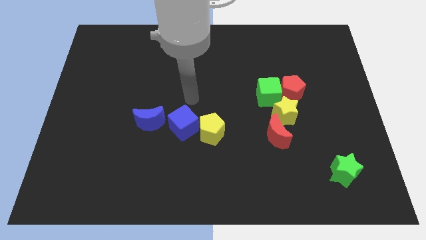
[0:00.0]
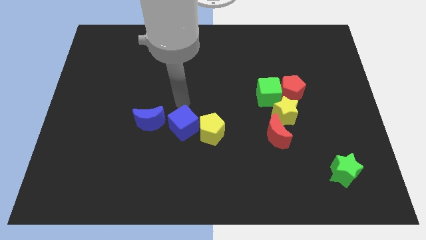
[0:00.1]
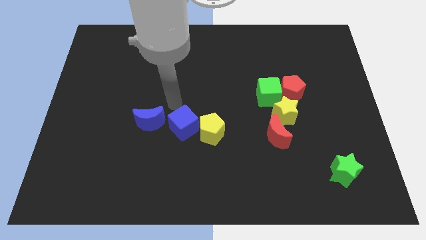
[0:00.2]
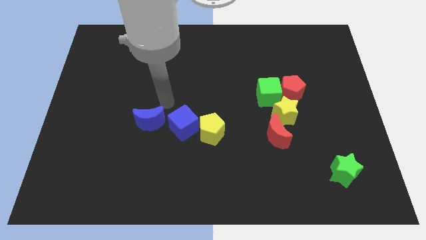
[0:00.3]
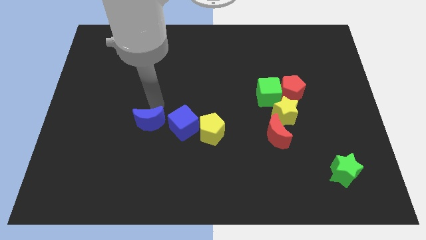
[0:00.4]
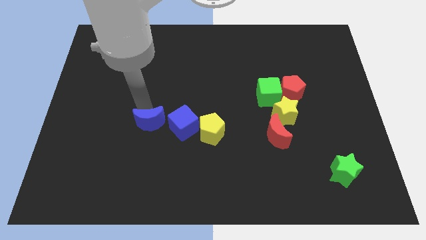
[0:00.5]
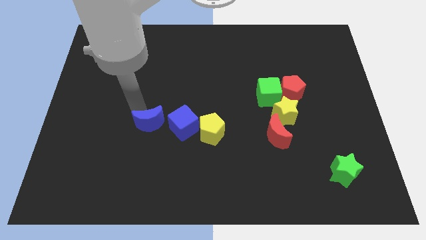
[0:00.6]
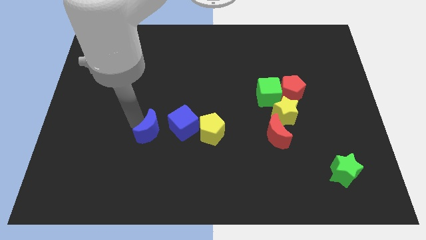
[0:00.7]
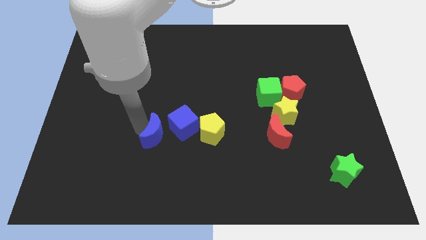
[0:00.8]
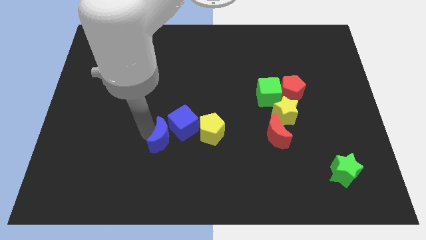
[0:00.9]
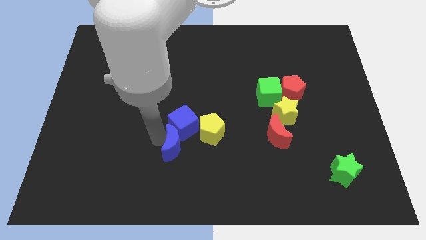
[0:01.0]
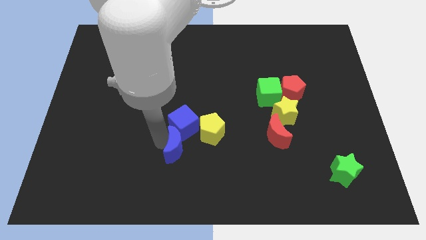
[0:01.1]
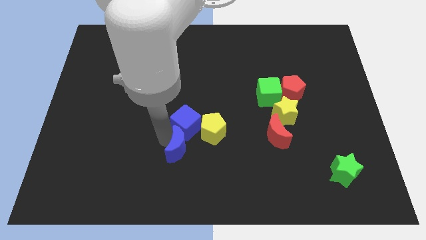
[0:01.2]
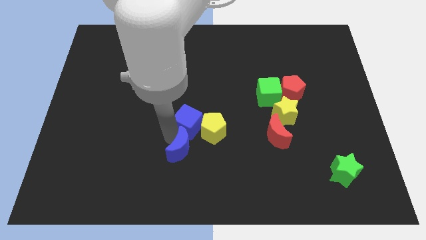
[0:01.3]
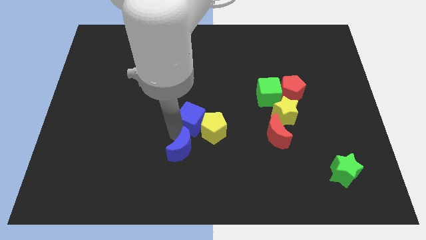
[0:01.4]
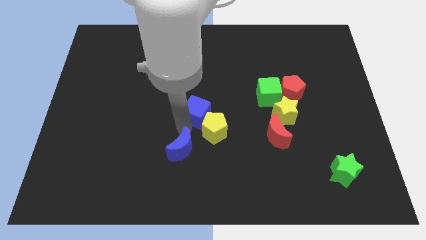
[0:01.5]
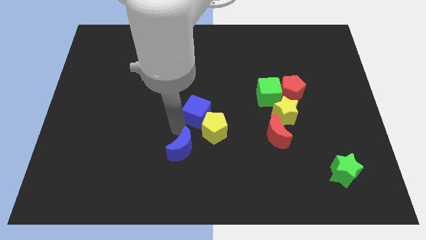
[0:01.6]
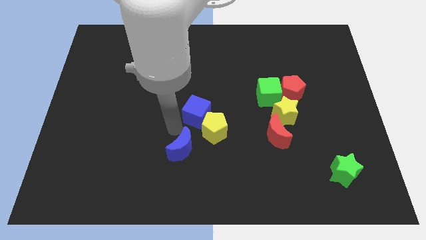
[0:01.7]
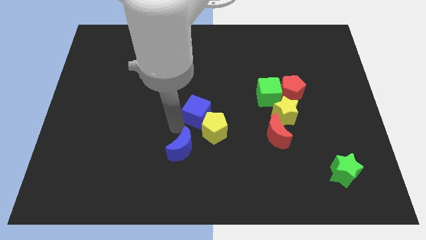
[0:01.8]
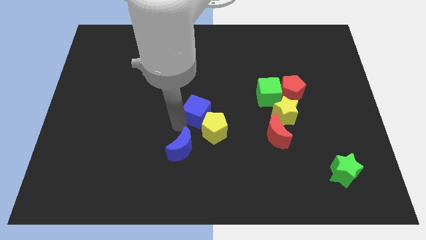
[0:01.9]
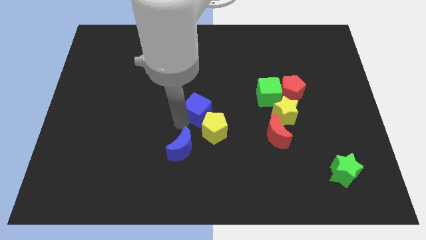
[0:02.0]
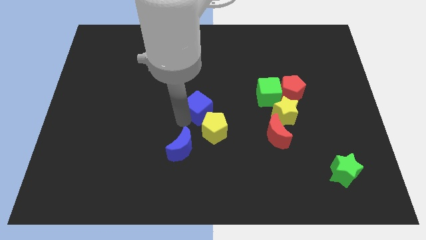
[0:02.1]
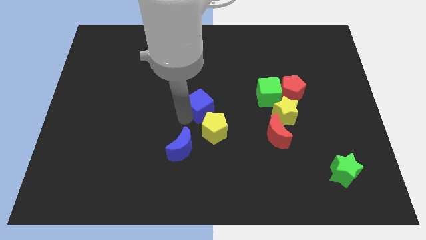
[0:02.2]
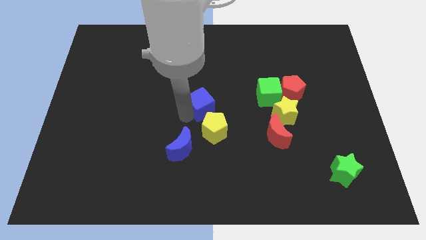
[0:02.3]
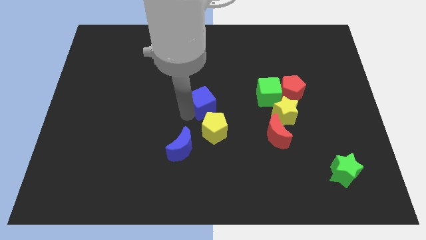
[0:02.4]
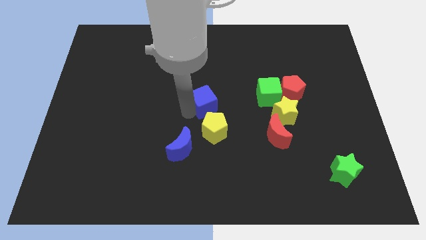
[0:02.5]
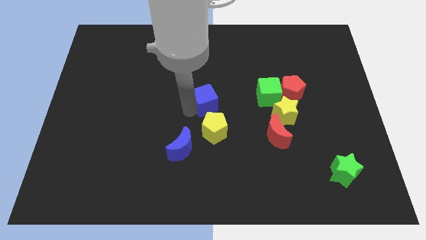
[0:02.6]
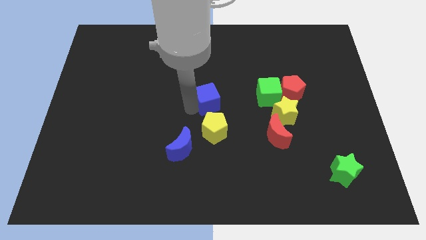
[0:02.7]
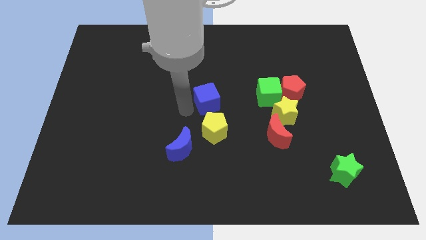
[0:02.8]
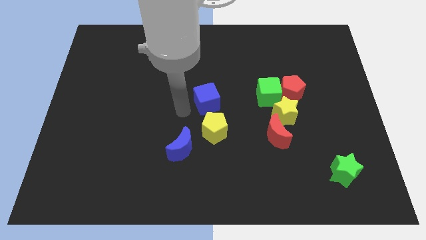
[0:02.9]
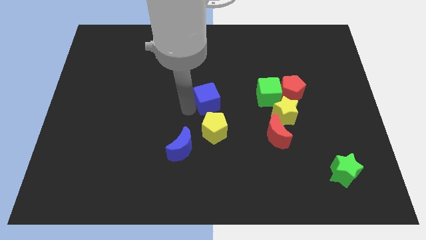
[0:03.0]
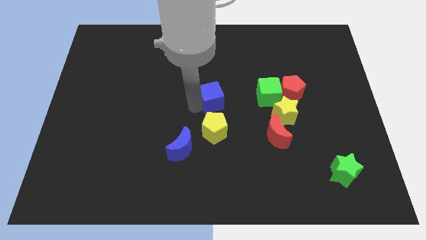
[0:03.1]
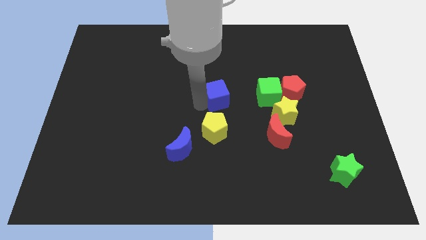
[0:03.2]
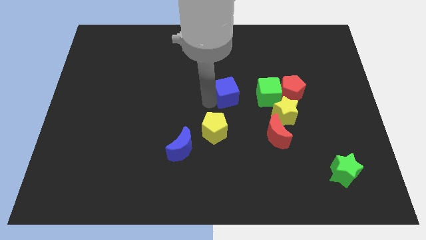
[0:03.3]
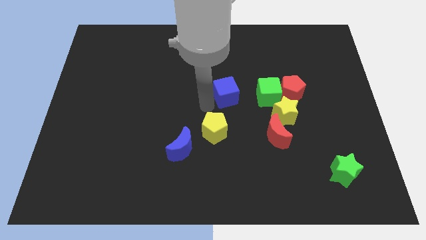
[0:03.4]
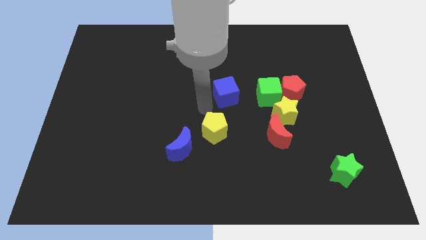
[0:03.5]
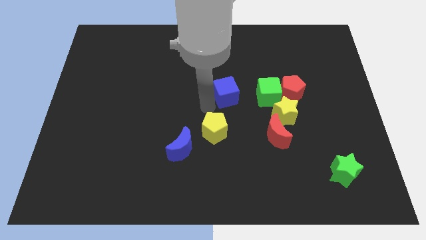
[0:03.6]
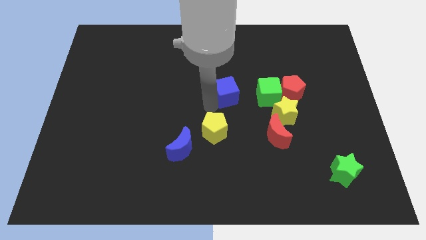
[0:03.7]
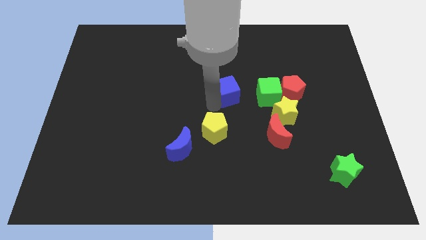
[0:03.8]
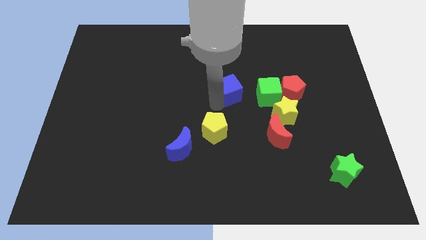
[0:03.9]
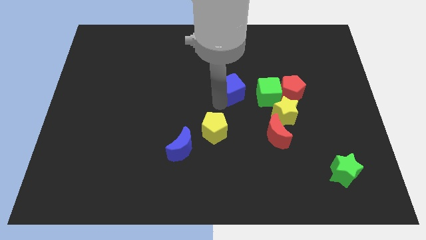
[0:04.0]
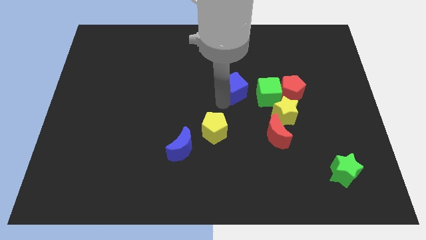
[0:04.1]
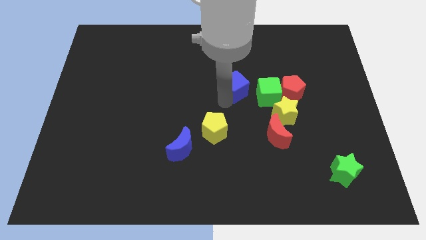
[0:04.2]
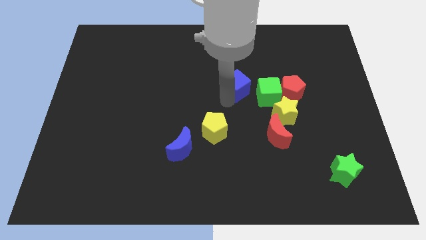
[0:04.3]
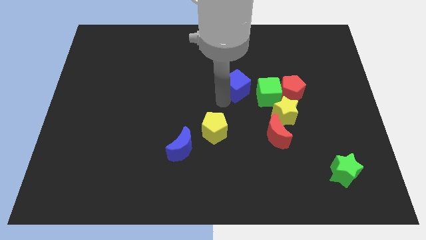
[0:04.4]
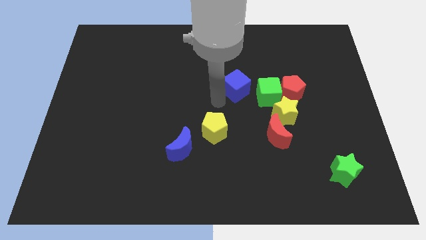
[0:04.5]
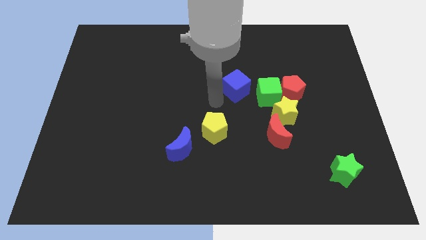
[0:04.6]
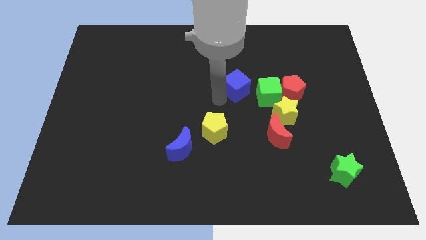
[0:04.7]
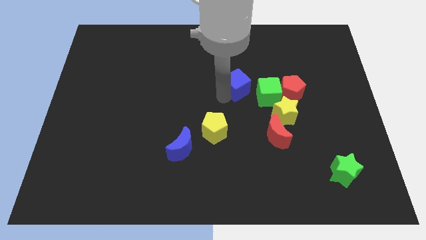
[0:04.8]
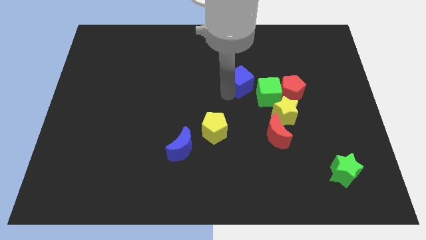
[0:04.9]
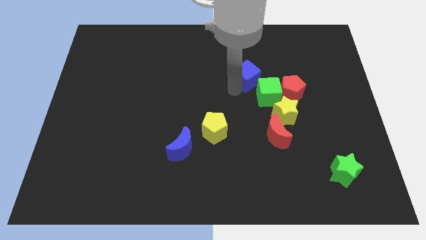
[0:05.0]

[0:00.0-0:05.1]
push the blue cube up and then right

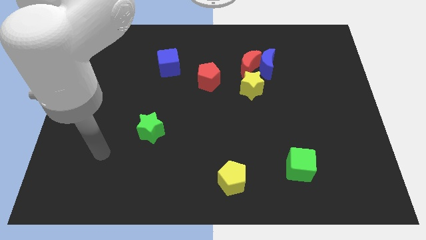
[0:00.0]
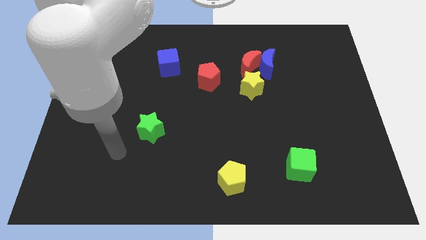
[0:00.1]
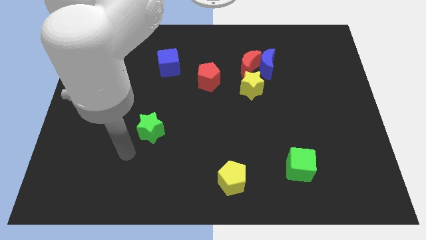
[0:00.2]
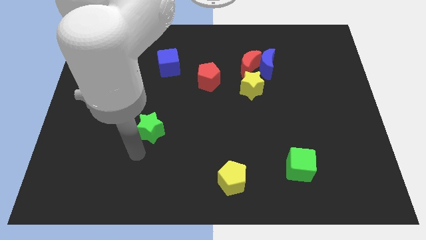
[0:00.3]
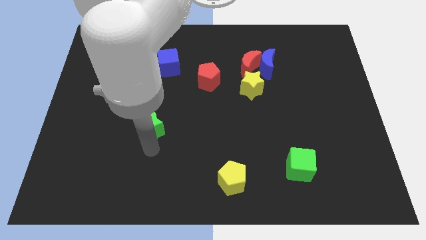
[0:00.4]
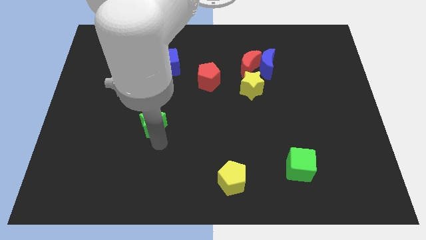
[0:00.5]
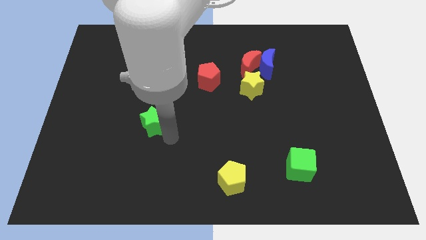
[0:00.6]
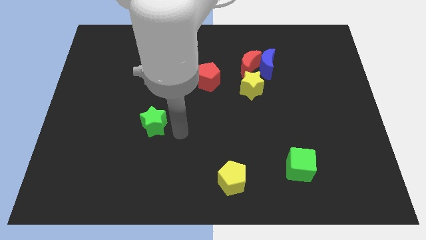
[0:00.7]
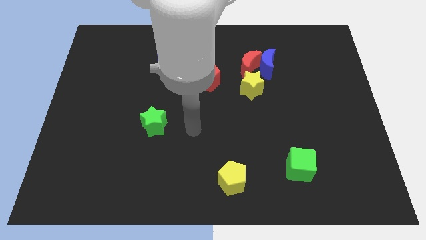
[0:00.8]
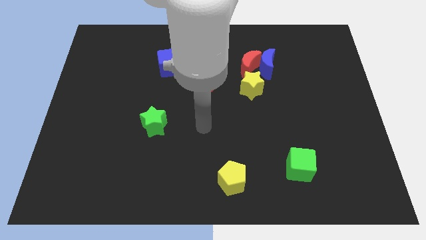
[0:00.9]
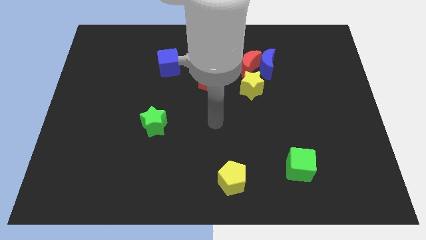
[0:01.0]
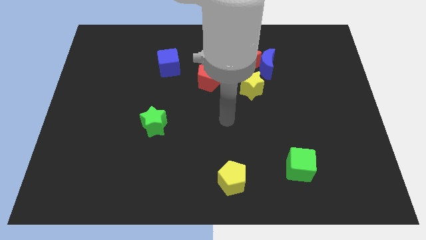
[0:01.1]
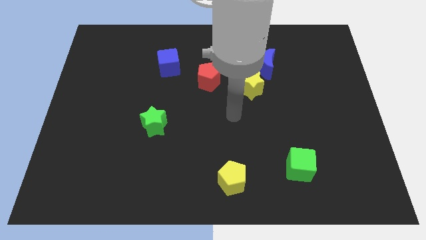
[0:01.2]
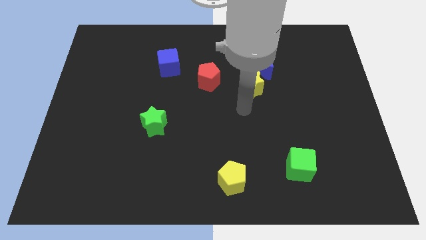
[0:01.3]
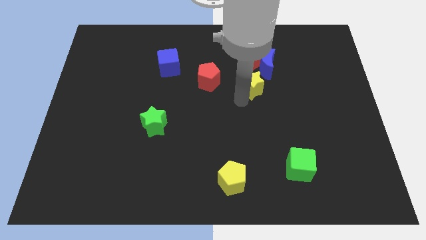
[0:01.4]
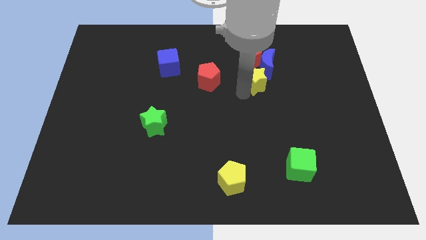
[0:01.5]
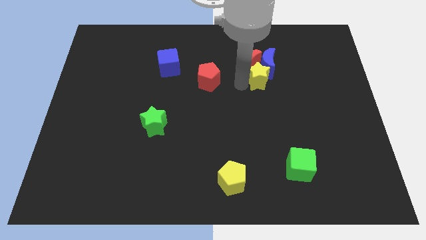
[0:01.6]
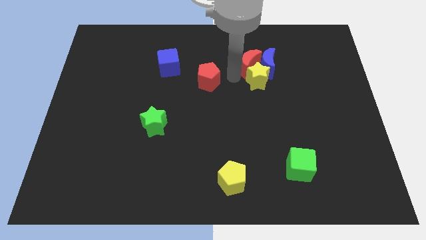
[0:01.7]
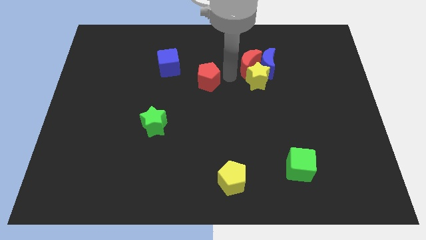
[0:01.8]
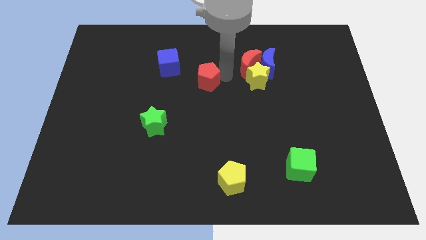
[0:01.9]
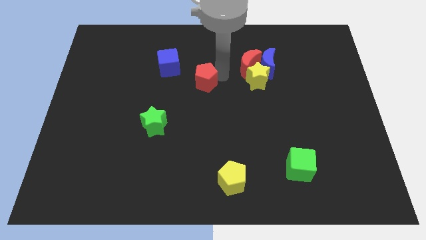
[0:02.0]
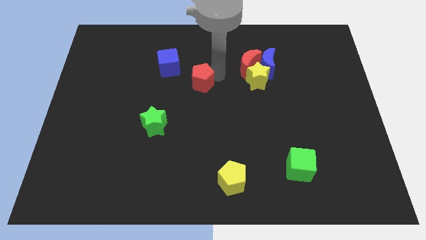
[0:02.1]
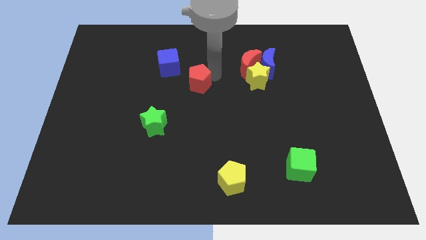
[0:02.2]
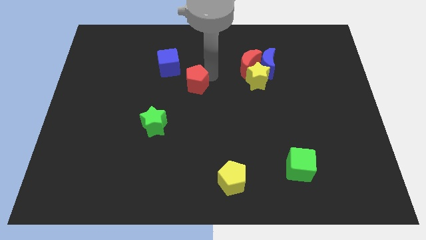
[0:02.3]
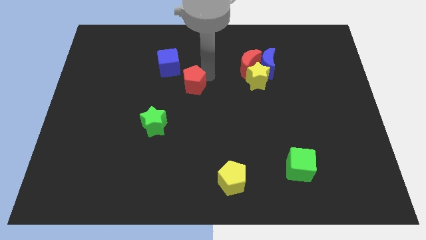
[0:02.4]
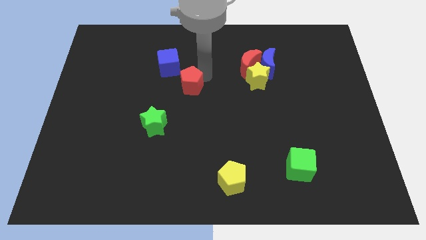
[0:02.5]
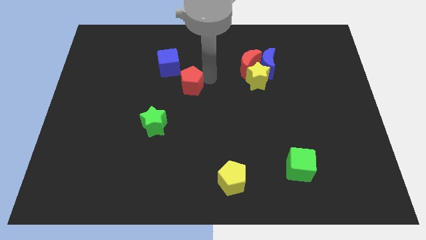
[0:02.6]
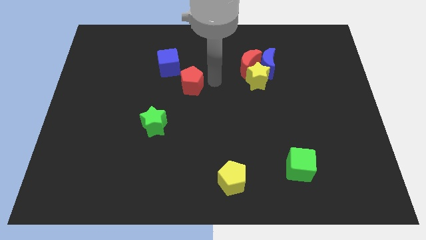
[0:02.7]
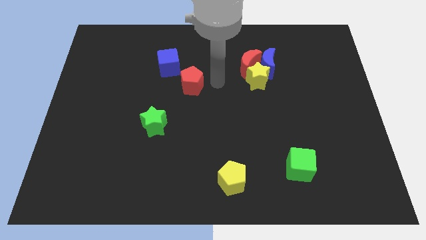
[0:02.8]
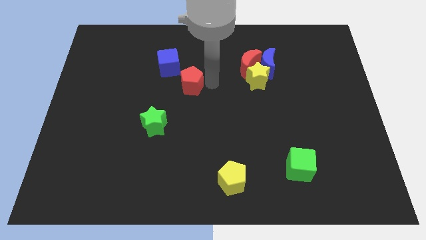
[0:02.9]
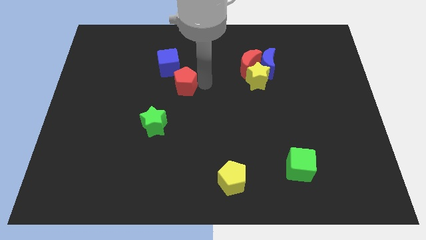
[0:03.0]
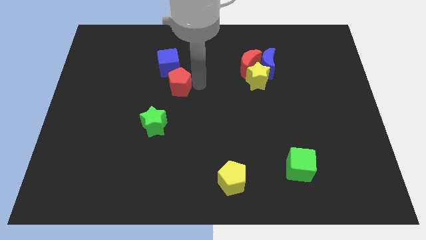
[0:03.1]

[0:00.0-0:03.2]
move the red pentagon a little bit left

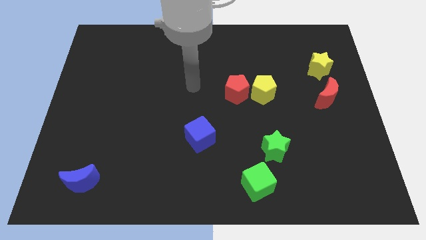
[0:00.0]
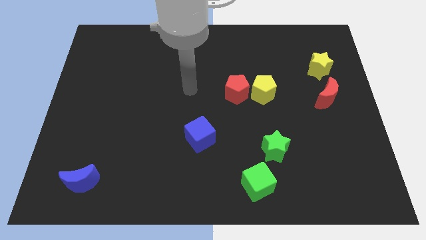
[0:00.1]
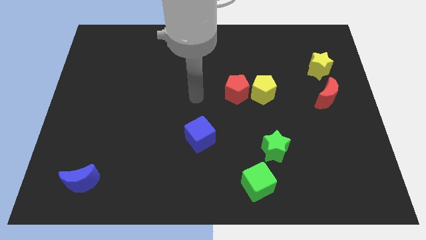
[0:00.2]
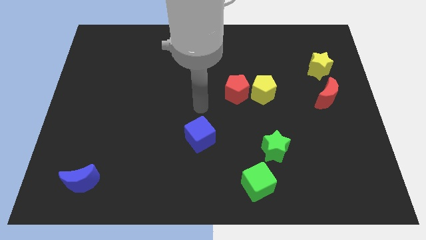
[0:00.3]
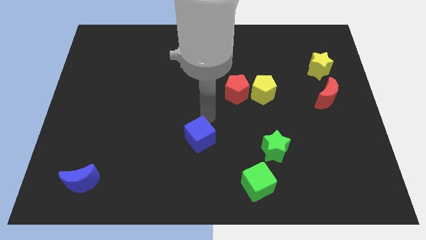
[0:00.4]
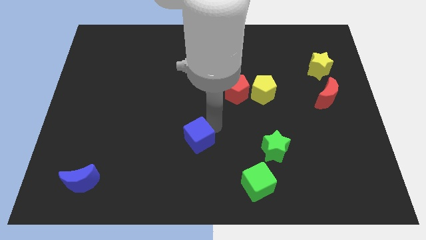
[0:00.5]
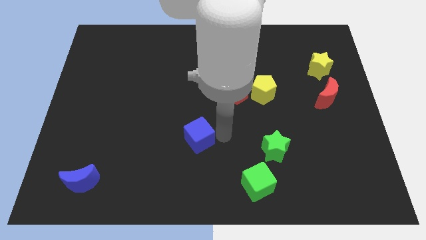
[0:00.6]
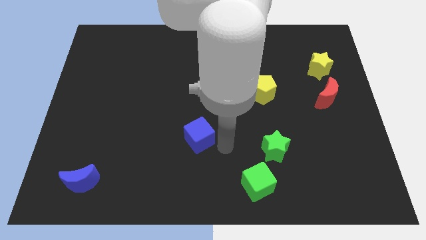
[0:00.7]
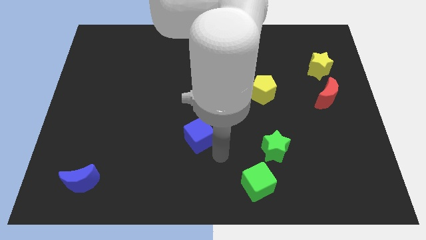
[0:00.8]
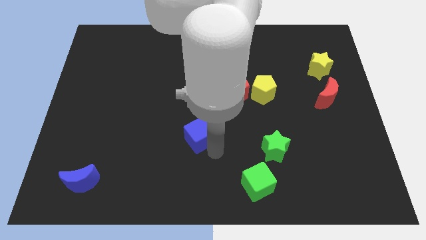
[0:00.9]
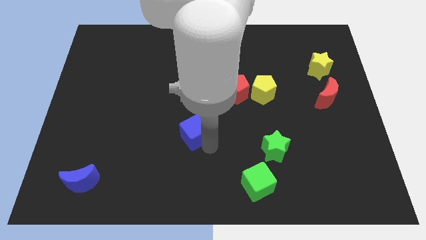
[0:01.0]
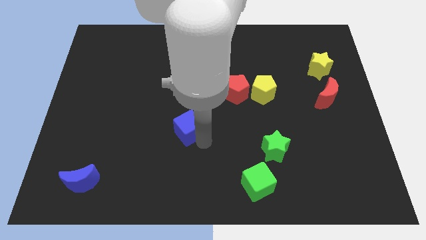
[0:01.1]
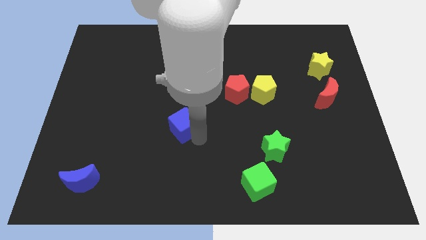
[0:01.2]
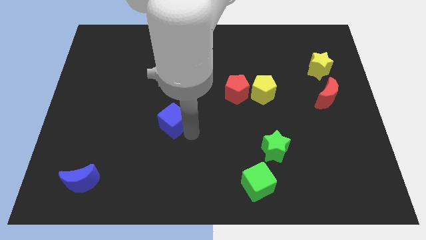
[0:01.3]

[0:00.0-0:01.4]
push the blue cube a bit diagonally up and left
